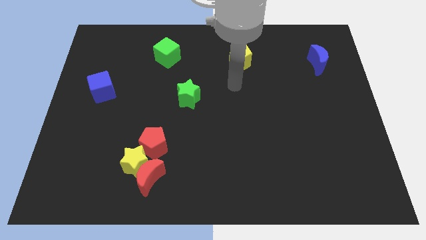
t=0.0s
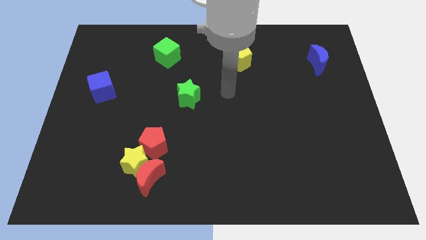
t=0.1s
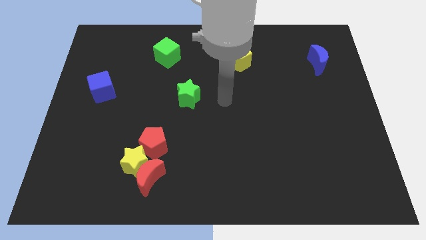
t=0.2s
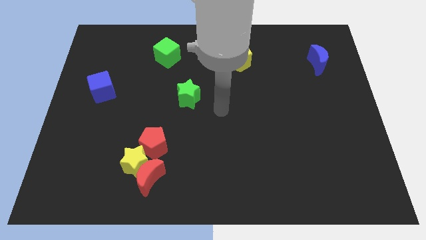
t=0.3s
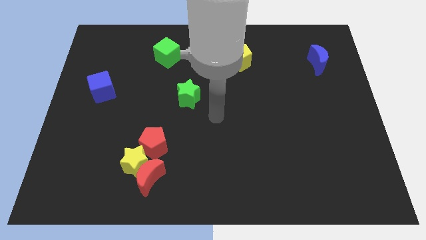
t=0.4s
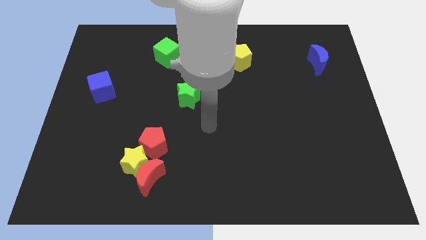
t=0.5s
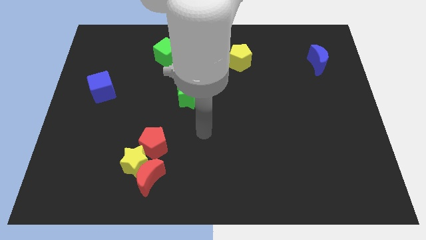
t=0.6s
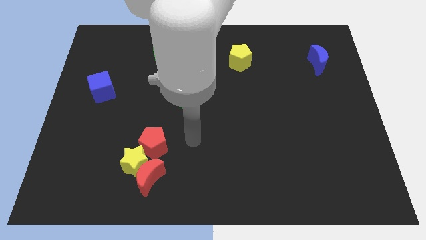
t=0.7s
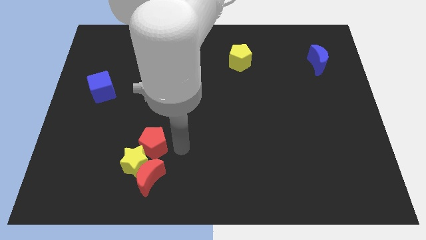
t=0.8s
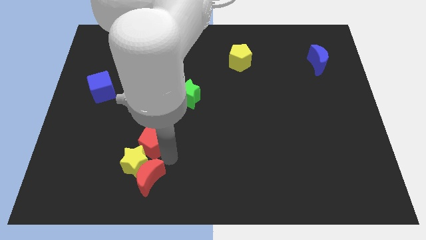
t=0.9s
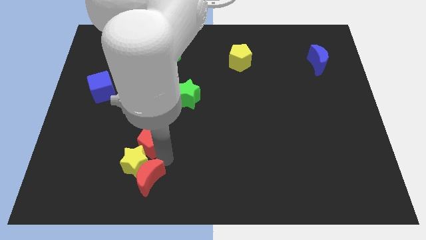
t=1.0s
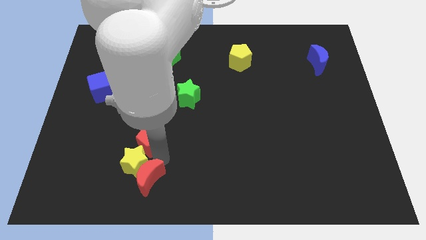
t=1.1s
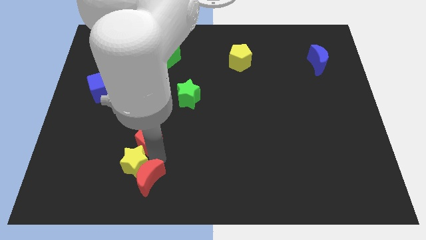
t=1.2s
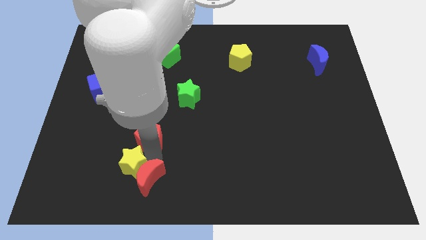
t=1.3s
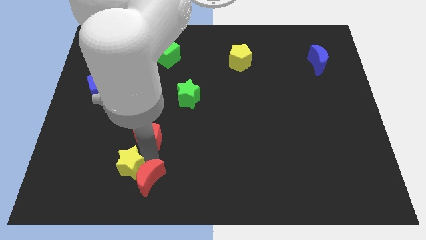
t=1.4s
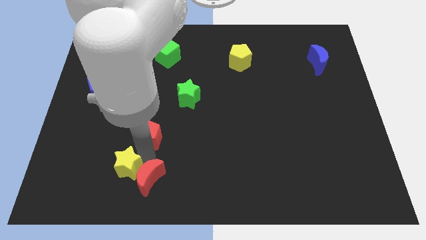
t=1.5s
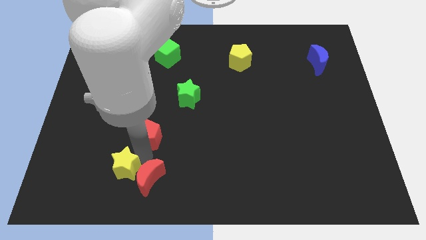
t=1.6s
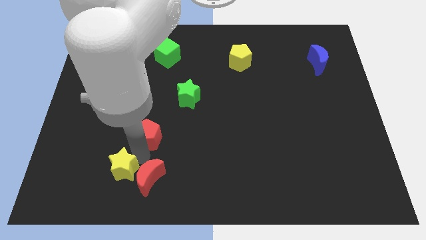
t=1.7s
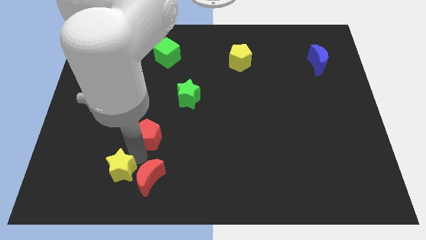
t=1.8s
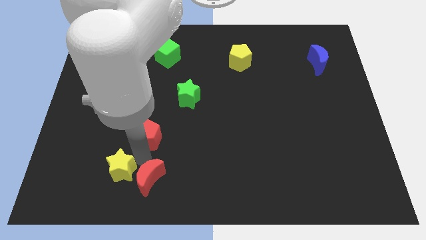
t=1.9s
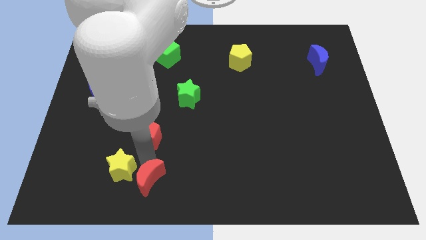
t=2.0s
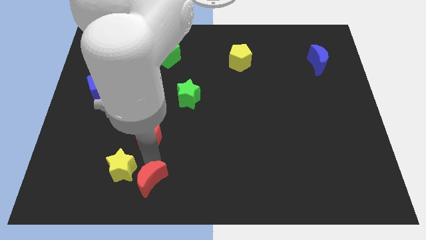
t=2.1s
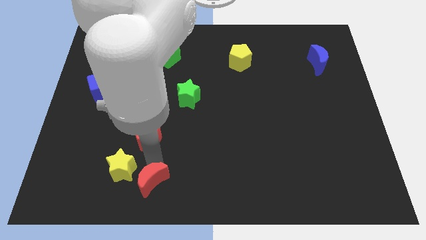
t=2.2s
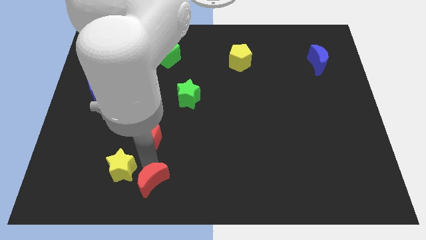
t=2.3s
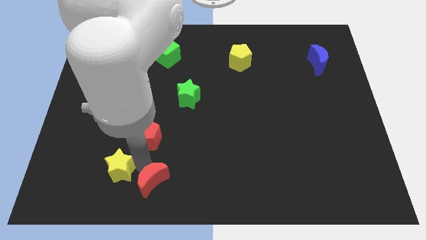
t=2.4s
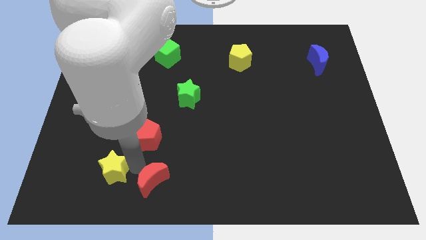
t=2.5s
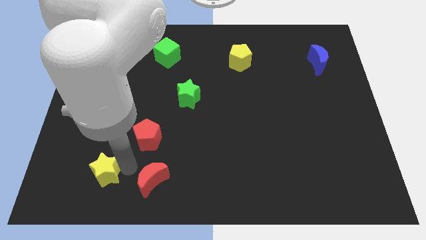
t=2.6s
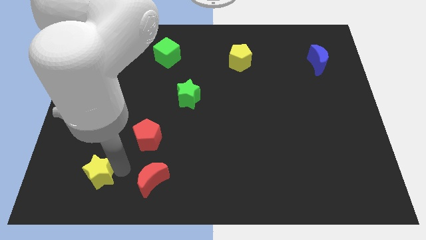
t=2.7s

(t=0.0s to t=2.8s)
separate the yellow star from the red moon and red pentagon

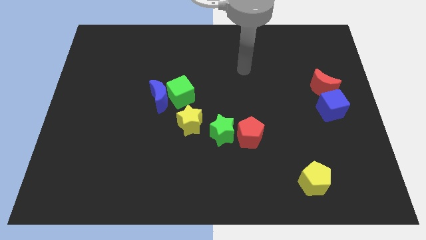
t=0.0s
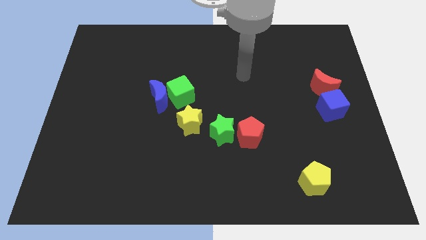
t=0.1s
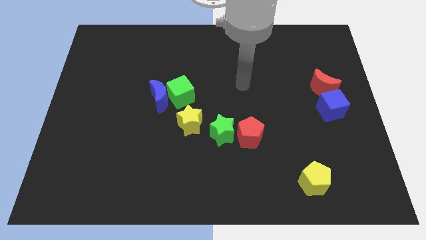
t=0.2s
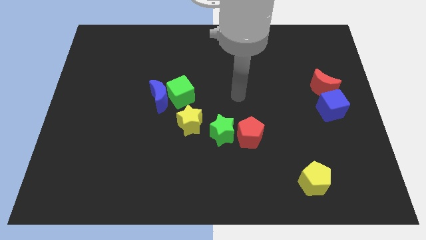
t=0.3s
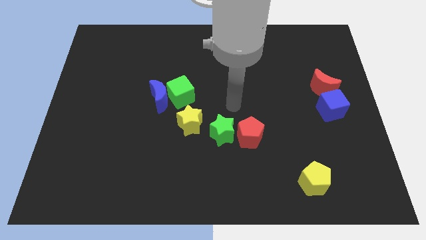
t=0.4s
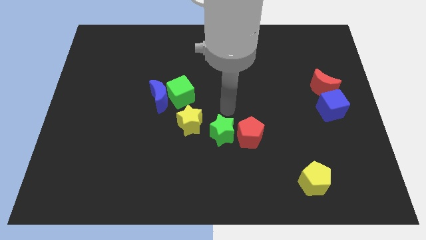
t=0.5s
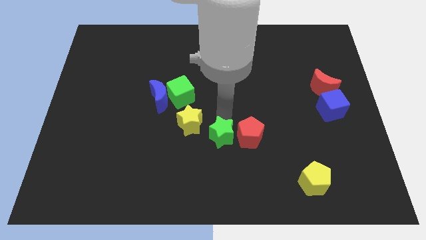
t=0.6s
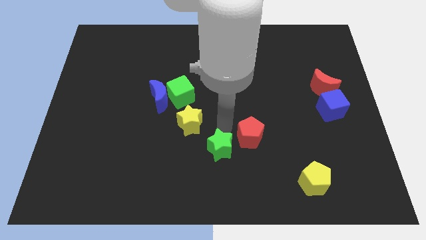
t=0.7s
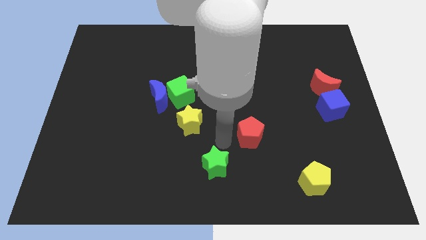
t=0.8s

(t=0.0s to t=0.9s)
move the red pentagon away from the green star

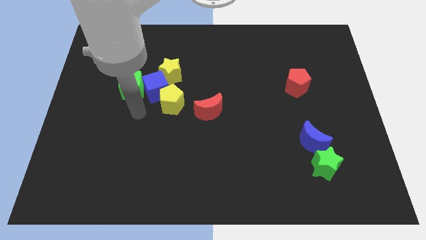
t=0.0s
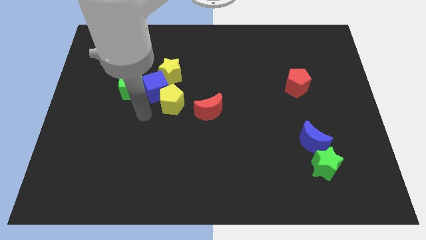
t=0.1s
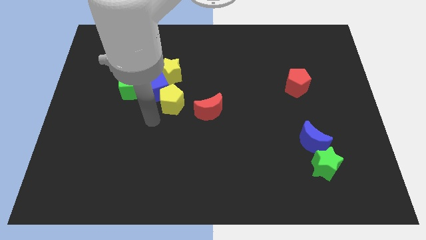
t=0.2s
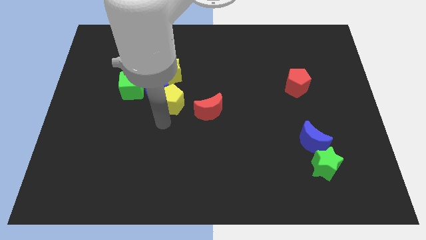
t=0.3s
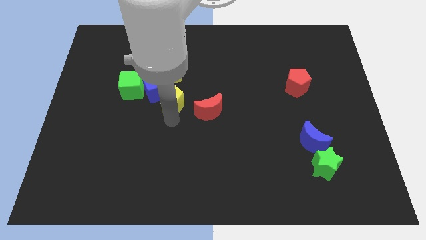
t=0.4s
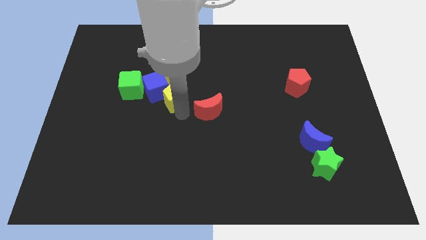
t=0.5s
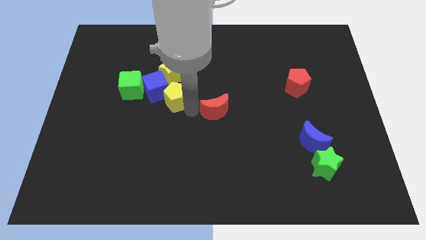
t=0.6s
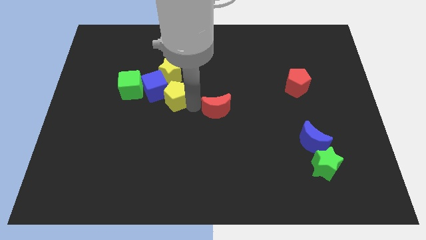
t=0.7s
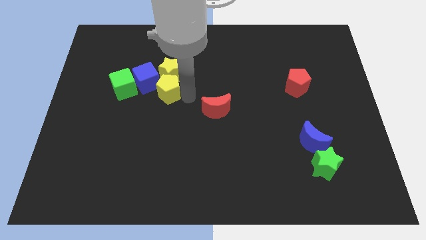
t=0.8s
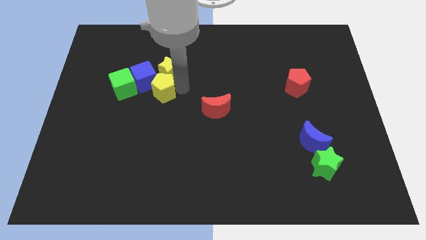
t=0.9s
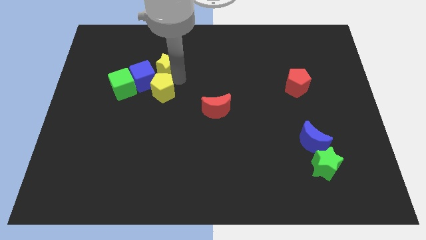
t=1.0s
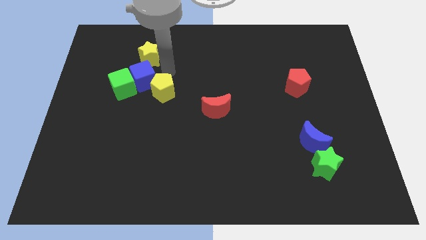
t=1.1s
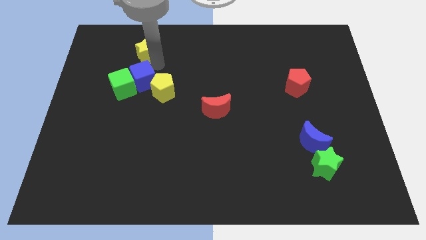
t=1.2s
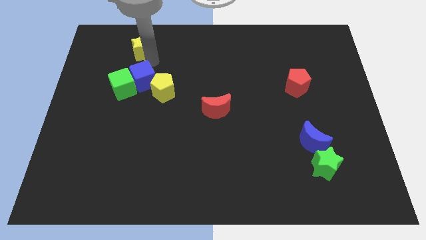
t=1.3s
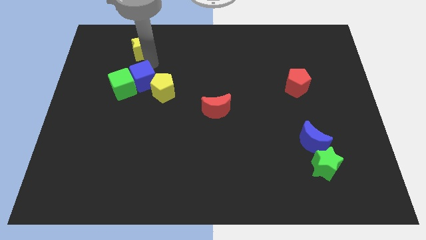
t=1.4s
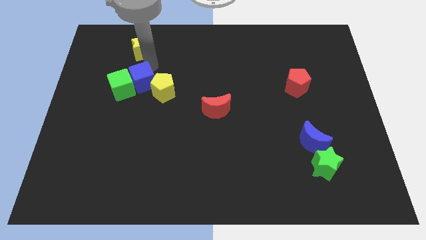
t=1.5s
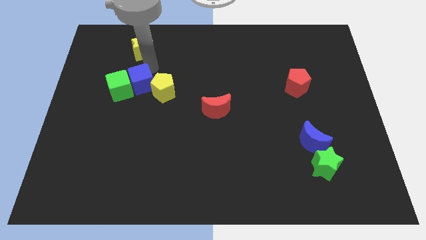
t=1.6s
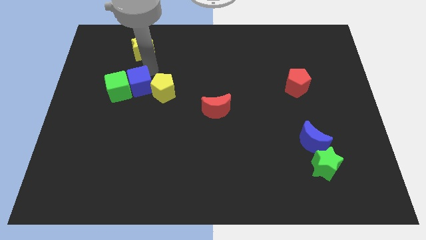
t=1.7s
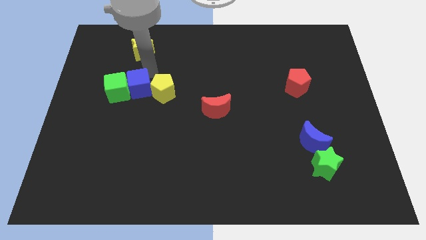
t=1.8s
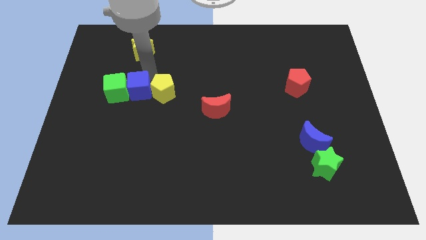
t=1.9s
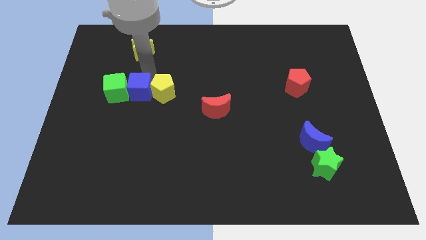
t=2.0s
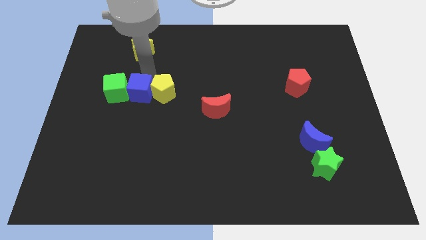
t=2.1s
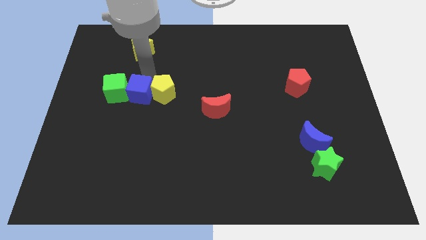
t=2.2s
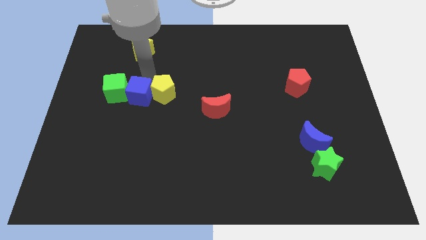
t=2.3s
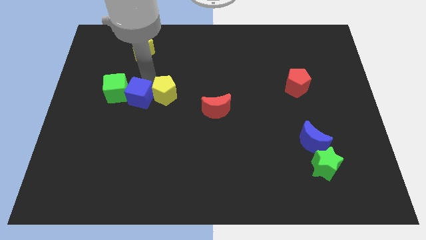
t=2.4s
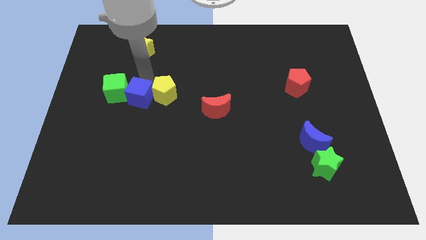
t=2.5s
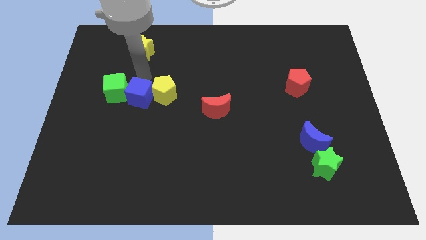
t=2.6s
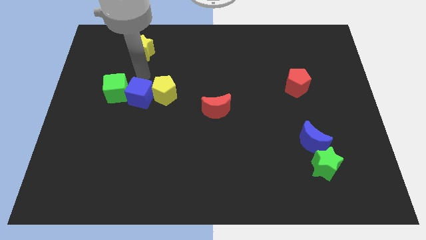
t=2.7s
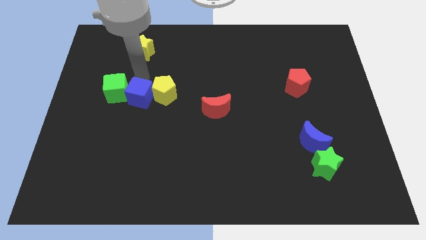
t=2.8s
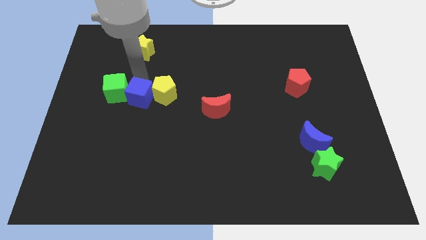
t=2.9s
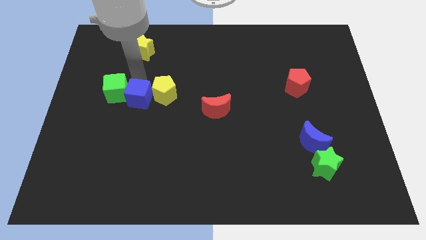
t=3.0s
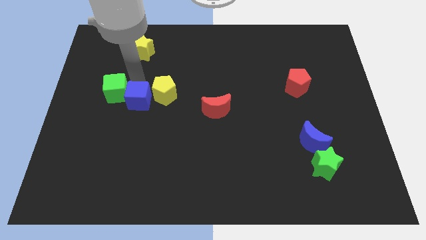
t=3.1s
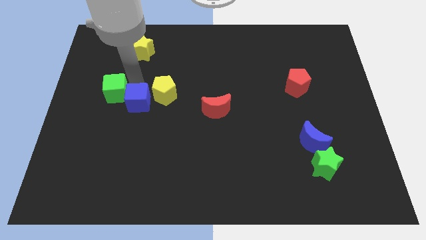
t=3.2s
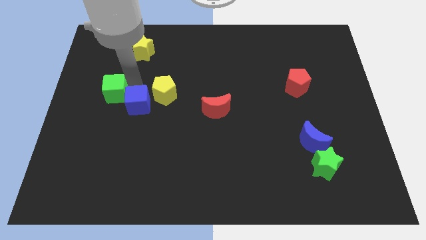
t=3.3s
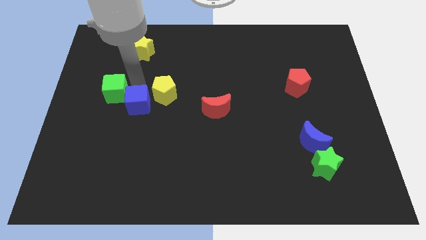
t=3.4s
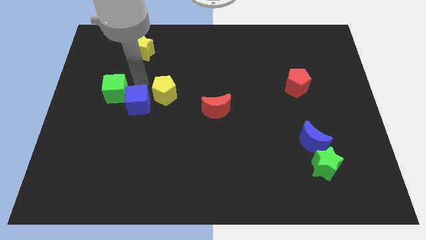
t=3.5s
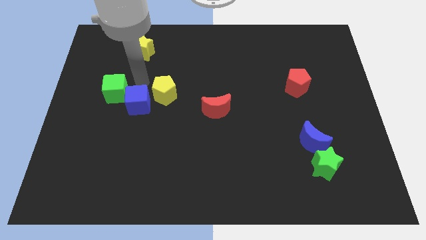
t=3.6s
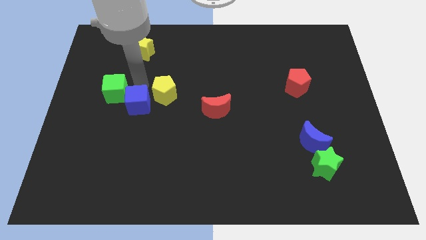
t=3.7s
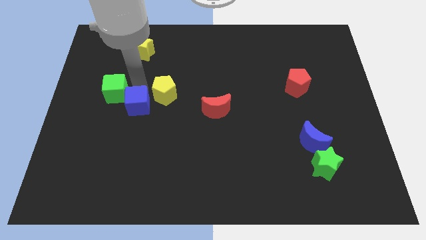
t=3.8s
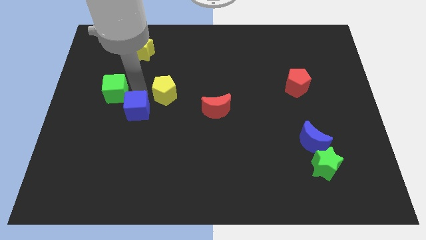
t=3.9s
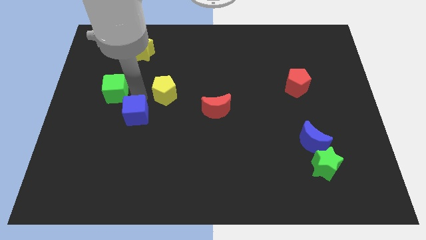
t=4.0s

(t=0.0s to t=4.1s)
pull the blue cube apart from the group of blocks

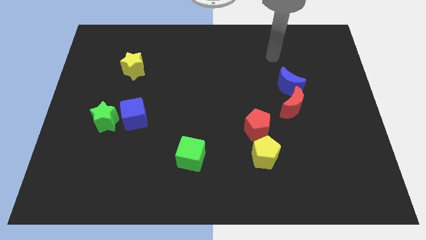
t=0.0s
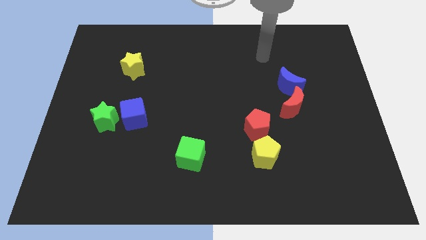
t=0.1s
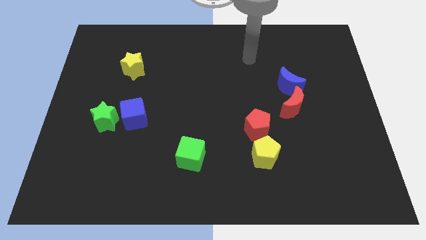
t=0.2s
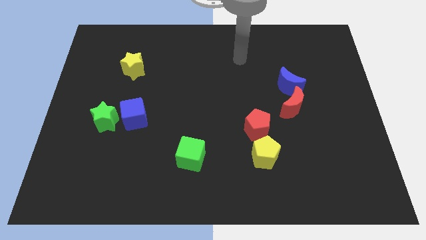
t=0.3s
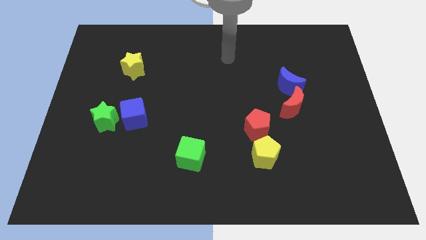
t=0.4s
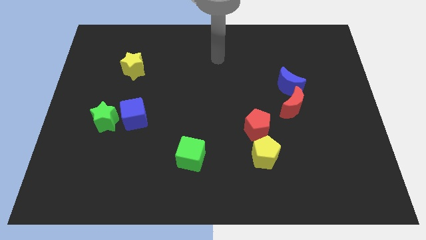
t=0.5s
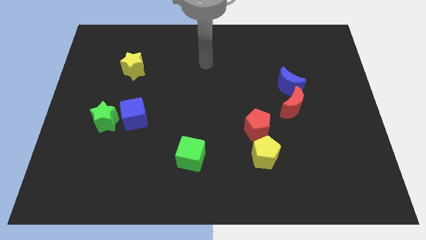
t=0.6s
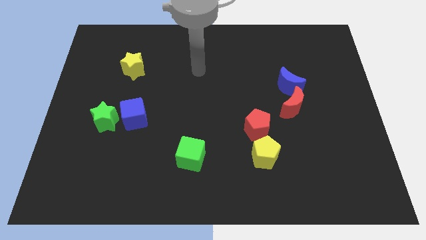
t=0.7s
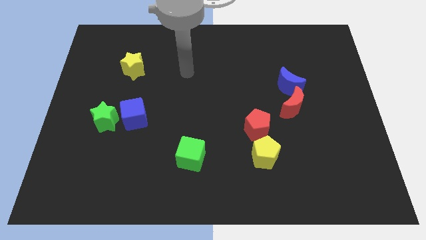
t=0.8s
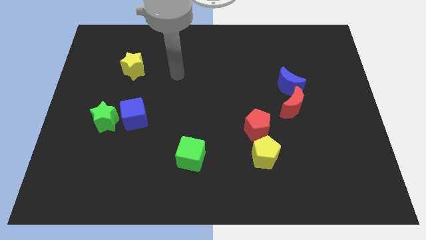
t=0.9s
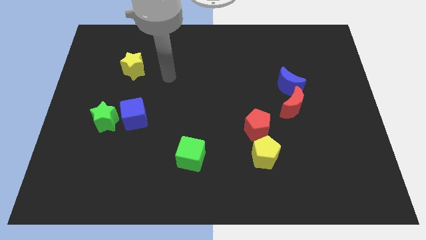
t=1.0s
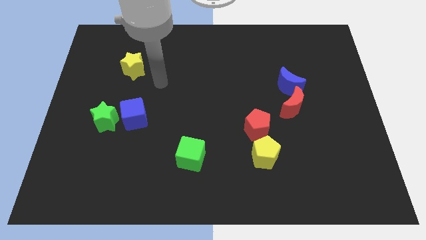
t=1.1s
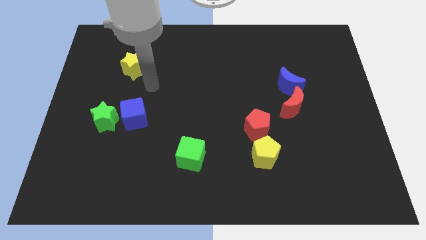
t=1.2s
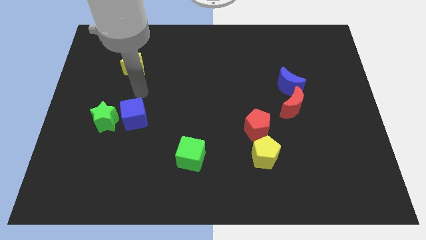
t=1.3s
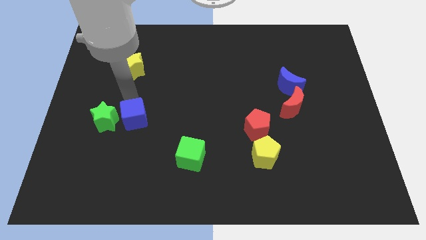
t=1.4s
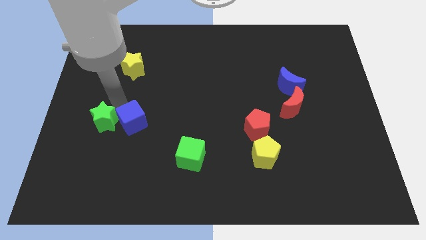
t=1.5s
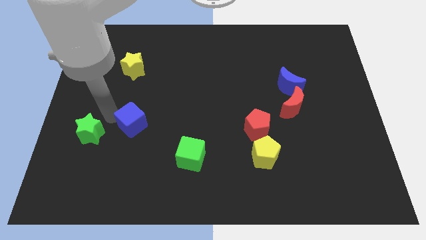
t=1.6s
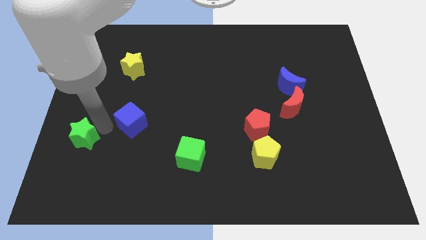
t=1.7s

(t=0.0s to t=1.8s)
separate the blue cube from the green star
